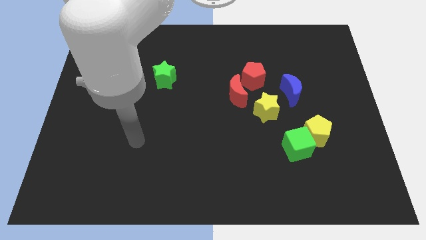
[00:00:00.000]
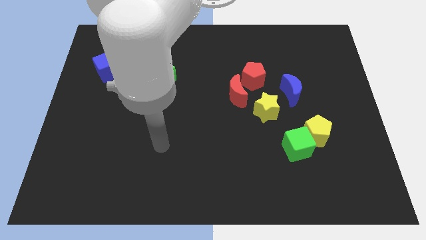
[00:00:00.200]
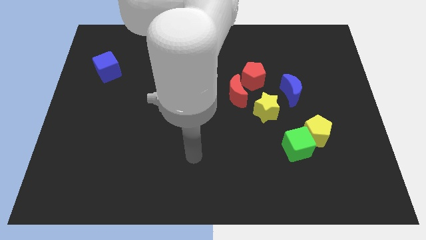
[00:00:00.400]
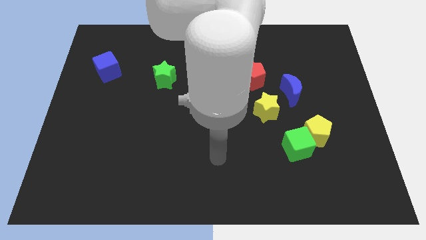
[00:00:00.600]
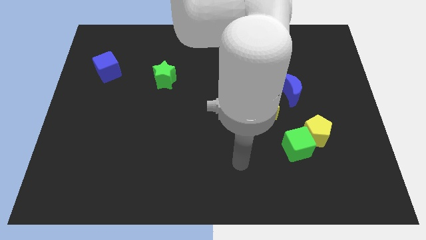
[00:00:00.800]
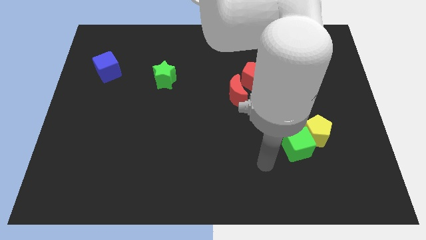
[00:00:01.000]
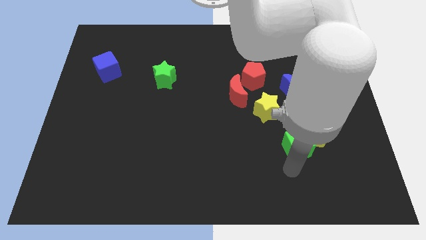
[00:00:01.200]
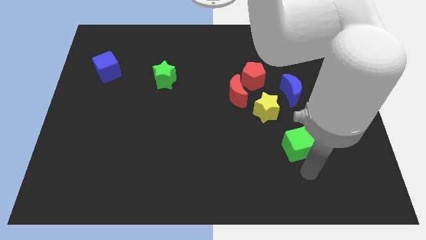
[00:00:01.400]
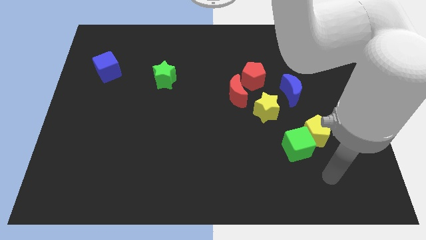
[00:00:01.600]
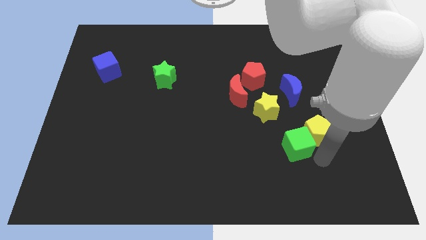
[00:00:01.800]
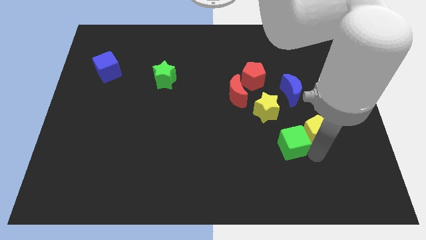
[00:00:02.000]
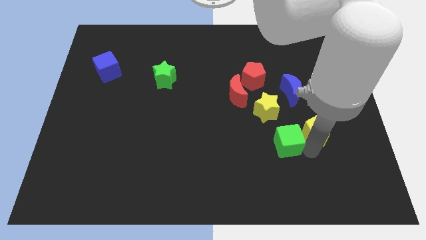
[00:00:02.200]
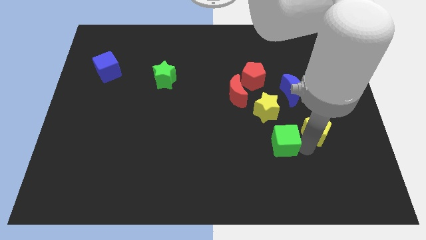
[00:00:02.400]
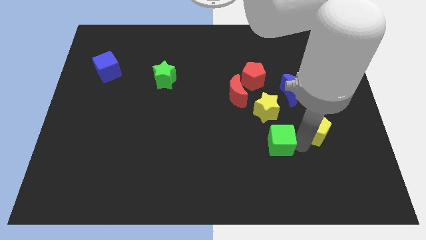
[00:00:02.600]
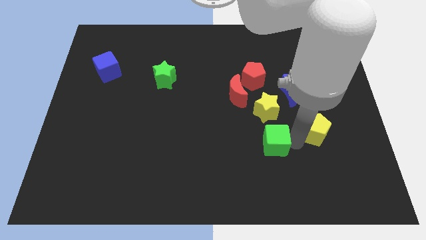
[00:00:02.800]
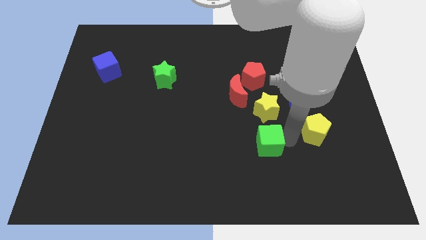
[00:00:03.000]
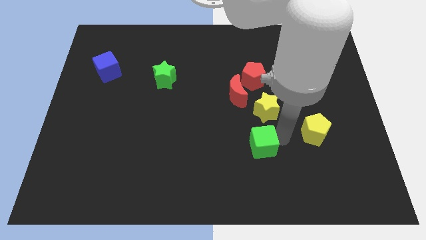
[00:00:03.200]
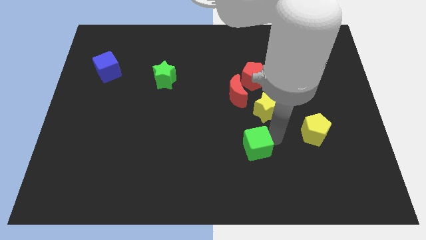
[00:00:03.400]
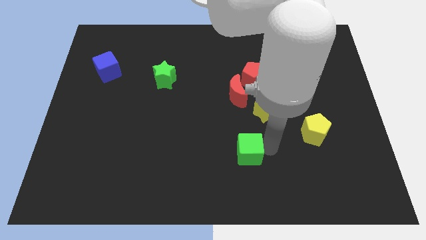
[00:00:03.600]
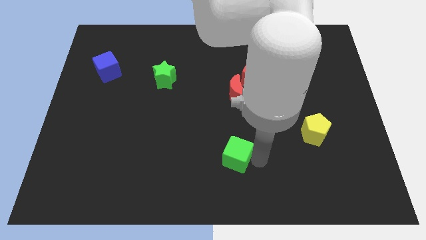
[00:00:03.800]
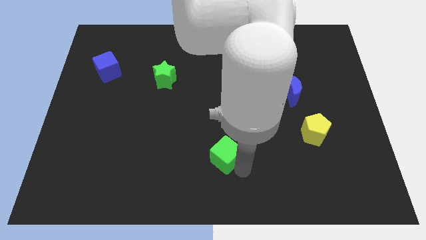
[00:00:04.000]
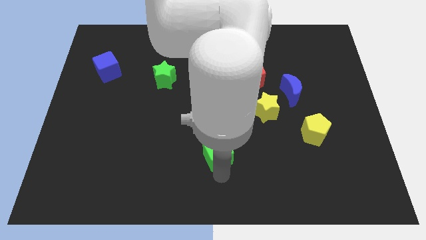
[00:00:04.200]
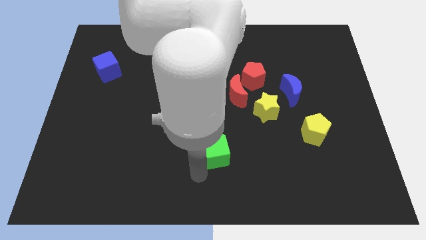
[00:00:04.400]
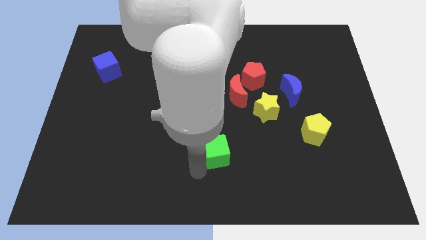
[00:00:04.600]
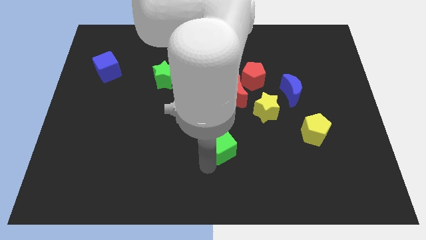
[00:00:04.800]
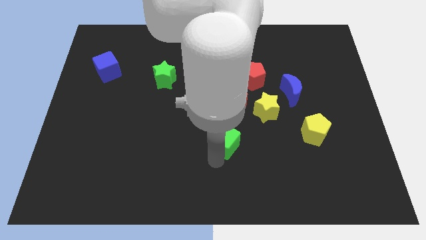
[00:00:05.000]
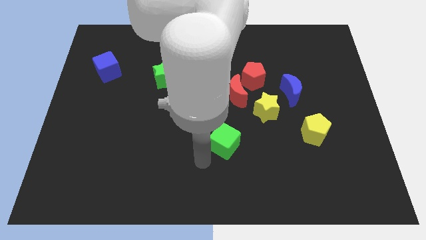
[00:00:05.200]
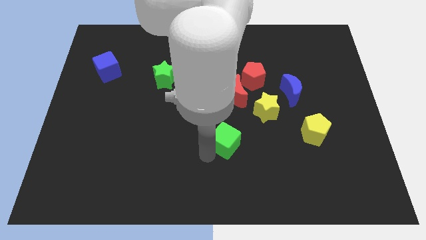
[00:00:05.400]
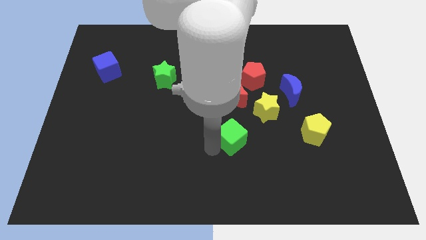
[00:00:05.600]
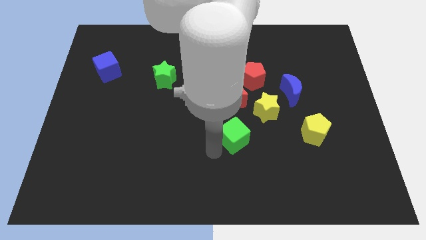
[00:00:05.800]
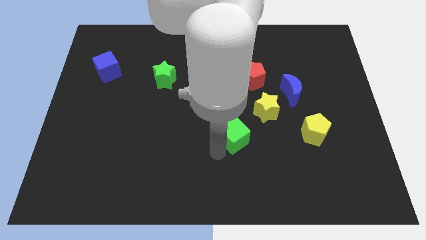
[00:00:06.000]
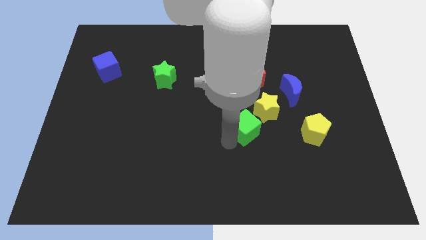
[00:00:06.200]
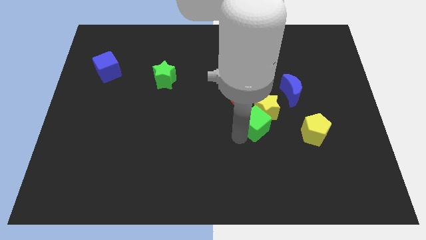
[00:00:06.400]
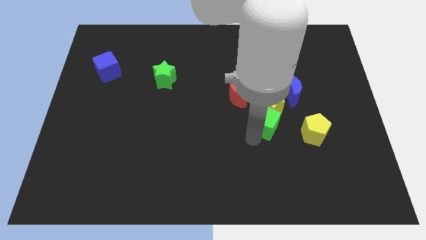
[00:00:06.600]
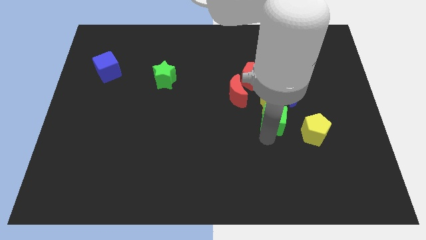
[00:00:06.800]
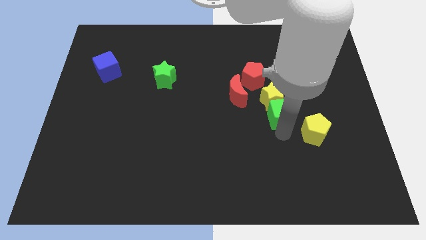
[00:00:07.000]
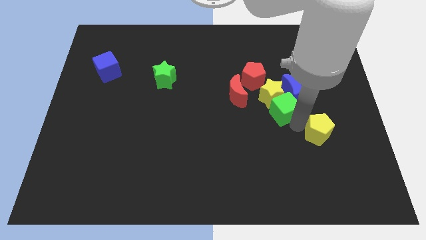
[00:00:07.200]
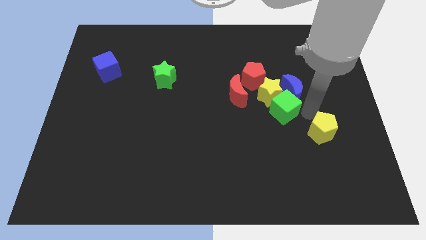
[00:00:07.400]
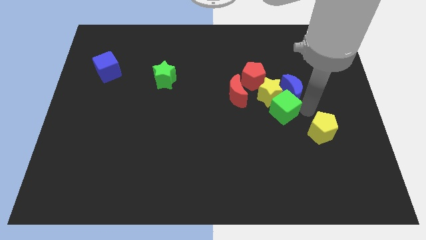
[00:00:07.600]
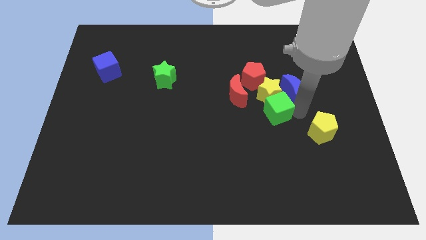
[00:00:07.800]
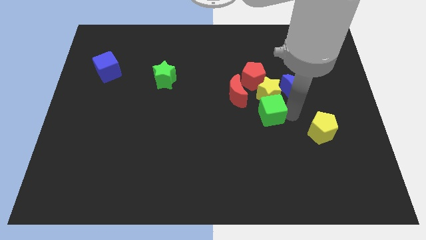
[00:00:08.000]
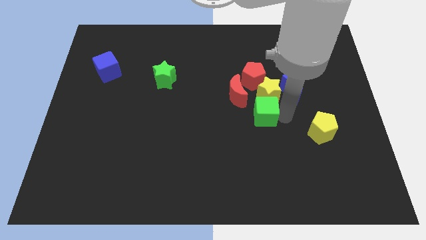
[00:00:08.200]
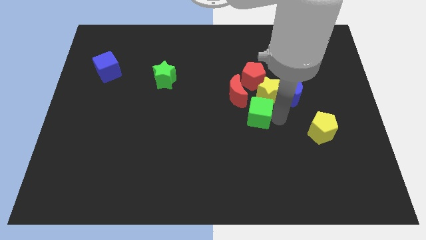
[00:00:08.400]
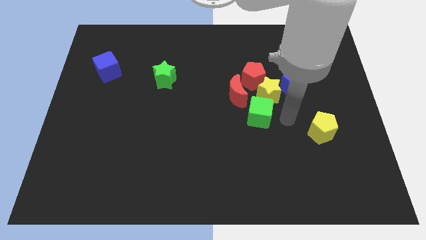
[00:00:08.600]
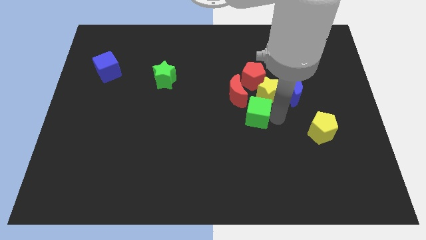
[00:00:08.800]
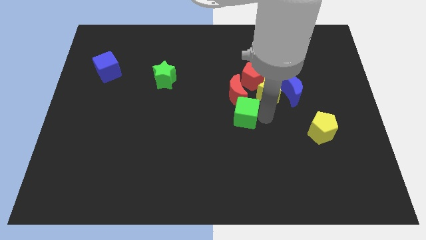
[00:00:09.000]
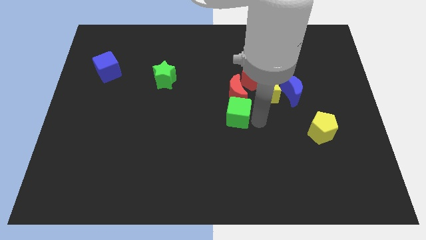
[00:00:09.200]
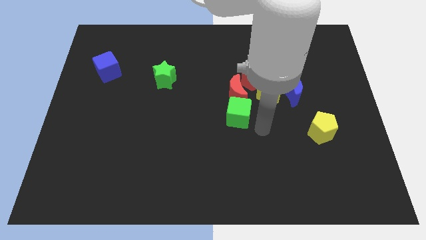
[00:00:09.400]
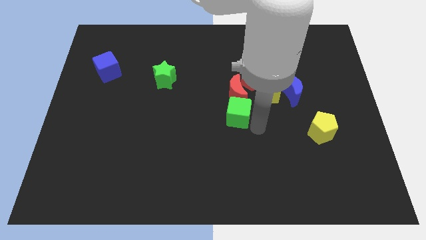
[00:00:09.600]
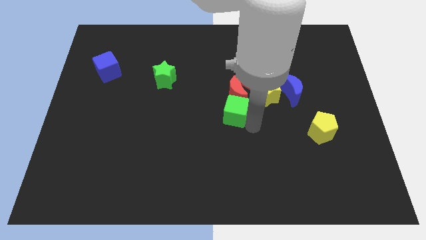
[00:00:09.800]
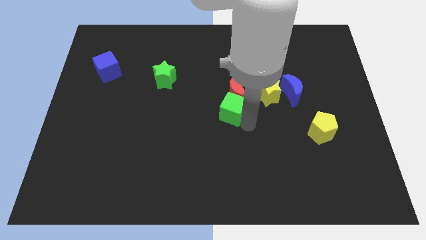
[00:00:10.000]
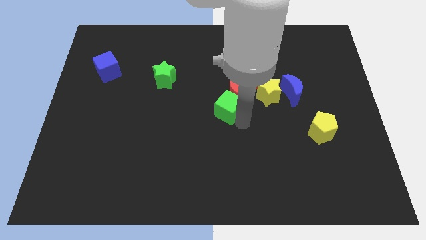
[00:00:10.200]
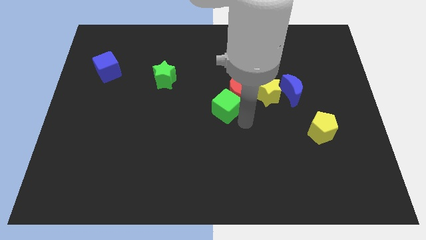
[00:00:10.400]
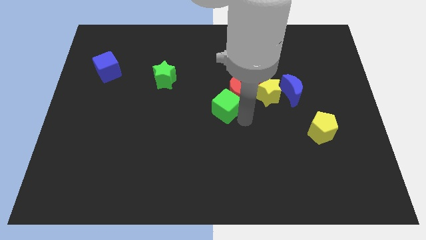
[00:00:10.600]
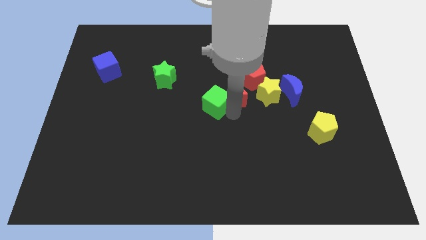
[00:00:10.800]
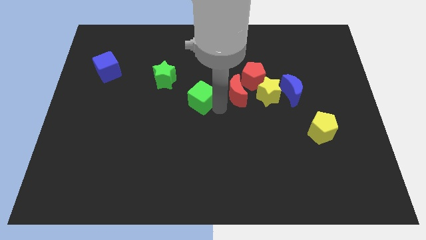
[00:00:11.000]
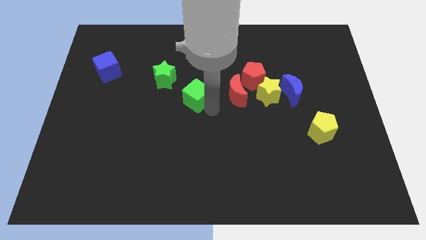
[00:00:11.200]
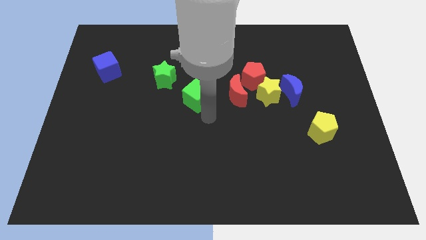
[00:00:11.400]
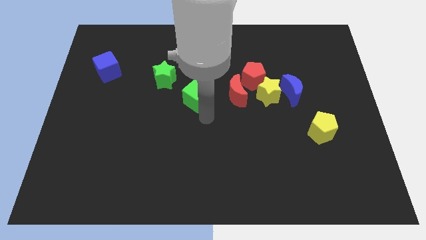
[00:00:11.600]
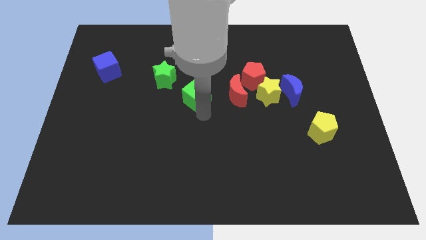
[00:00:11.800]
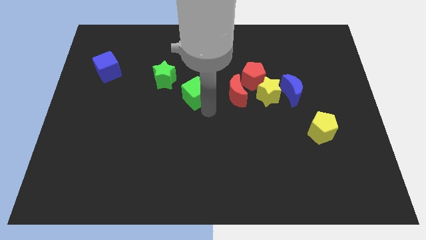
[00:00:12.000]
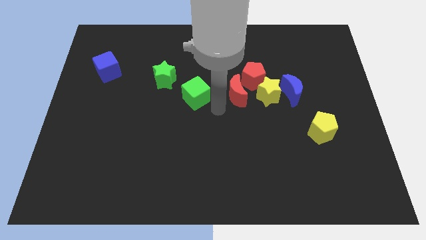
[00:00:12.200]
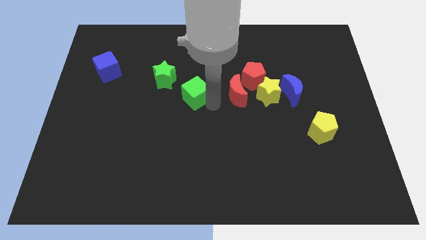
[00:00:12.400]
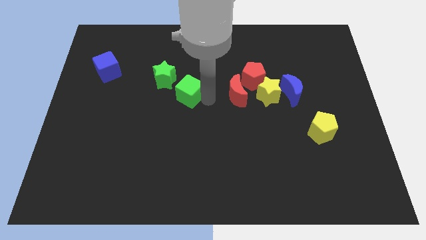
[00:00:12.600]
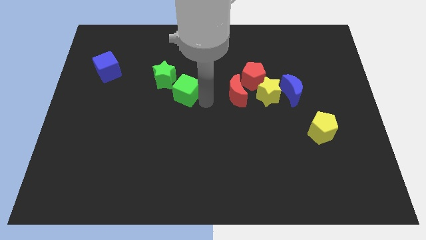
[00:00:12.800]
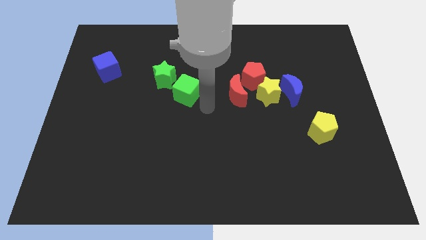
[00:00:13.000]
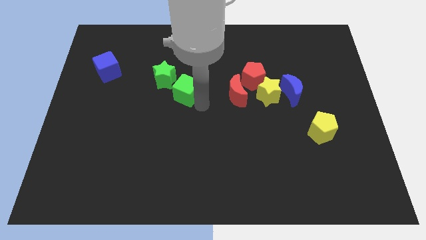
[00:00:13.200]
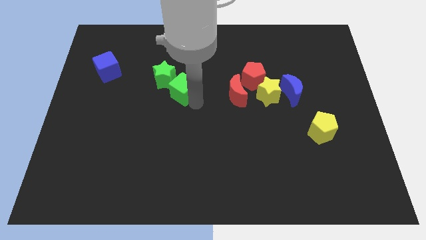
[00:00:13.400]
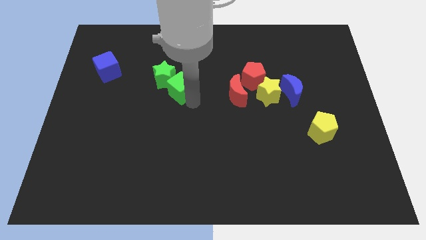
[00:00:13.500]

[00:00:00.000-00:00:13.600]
move the green cube to the green star

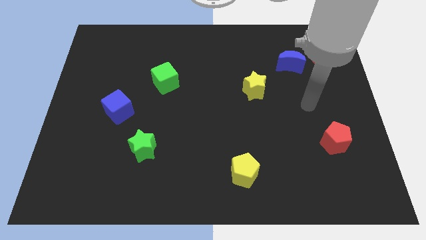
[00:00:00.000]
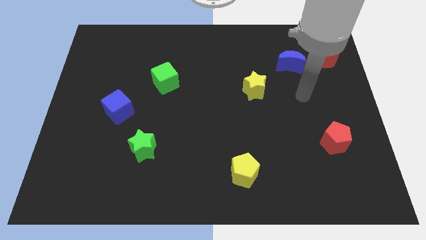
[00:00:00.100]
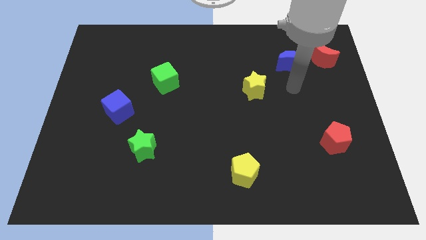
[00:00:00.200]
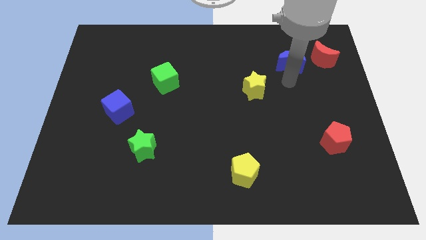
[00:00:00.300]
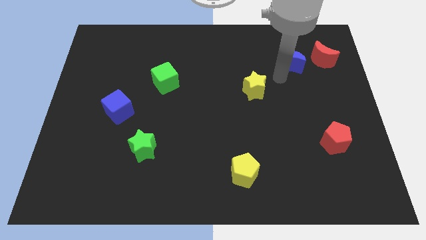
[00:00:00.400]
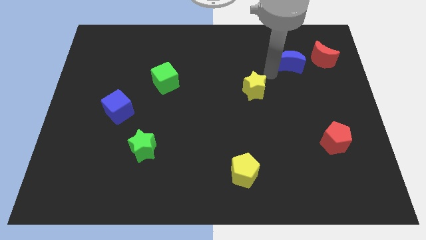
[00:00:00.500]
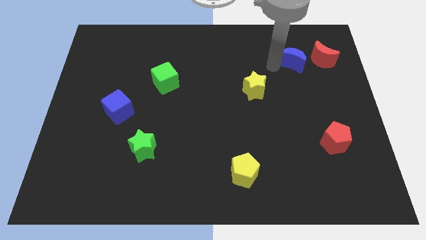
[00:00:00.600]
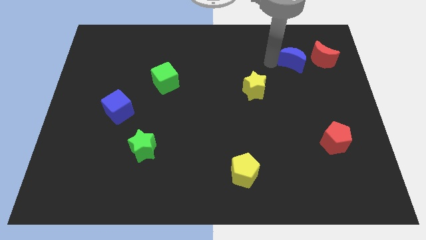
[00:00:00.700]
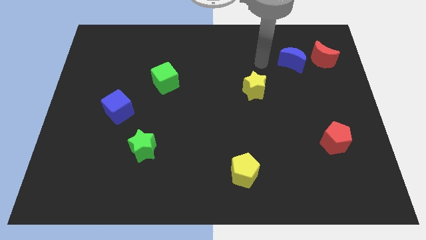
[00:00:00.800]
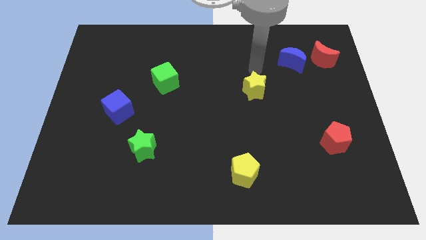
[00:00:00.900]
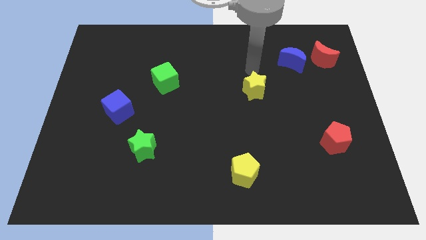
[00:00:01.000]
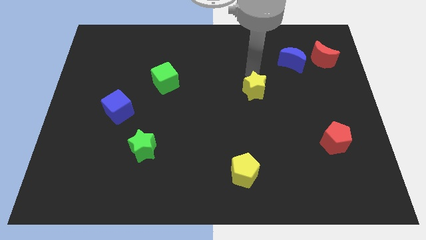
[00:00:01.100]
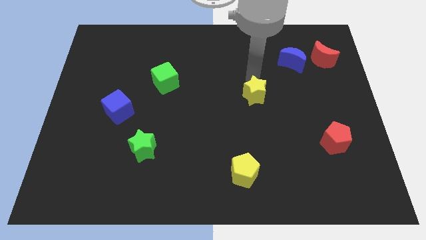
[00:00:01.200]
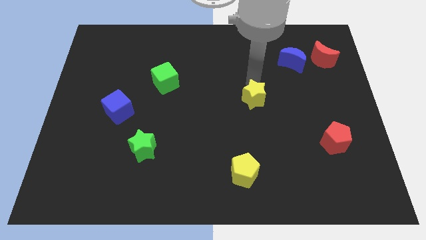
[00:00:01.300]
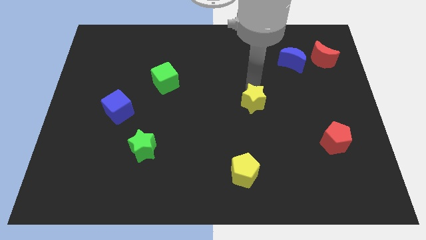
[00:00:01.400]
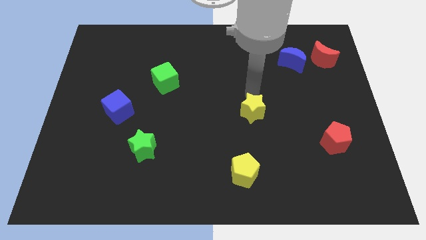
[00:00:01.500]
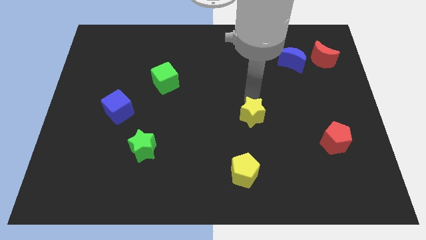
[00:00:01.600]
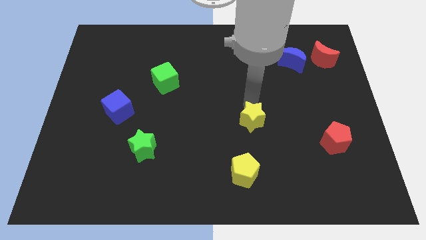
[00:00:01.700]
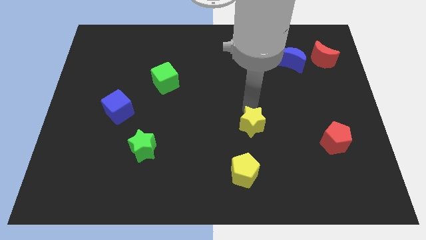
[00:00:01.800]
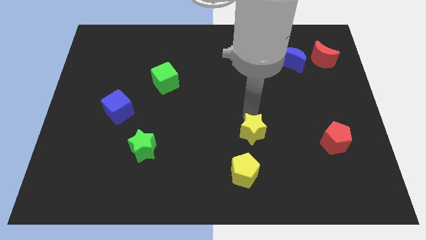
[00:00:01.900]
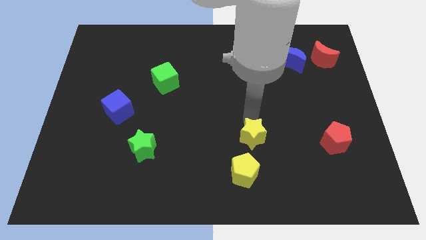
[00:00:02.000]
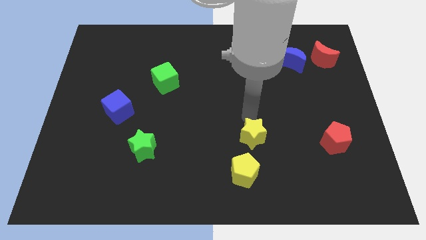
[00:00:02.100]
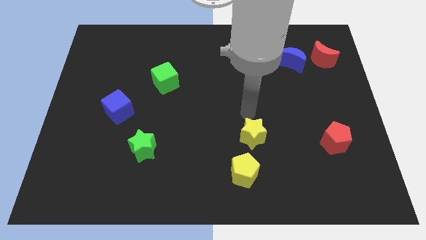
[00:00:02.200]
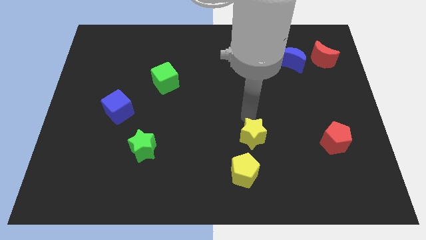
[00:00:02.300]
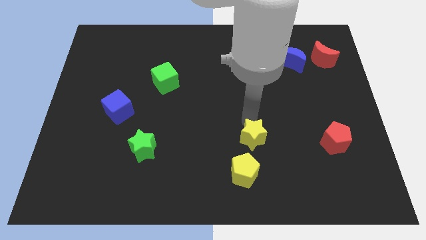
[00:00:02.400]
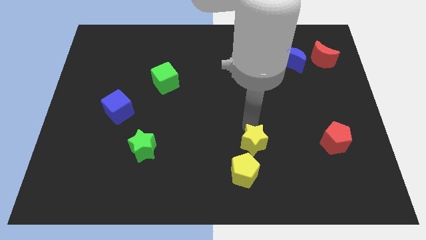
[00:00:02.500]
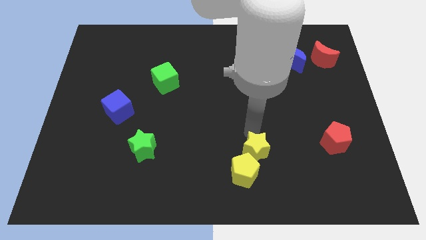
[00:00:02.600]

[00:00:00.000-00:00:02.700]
put the yellow star close to the yellow pentagon
